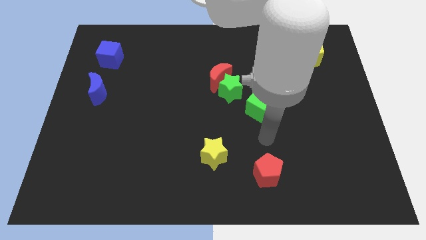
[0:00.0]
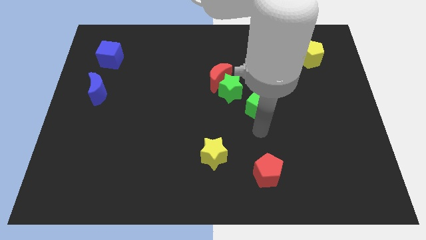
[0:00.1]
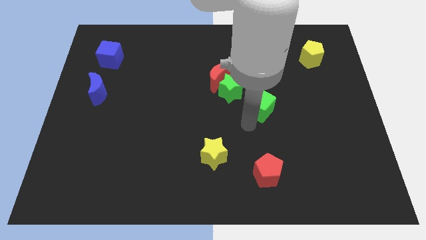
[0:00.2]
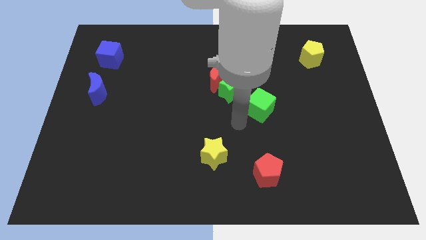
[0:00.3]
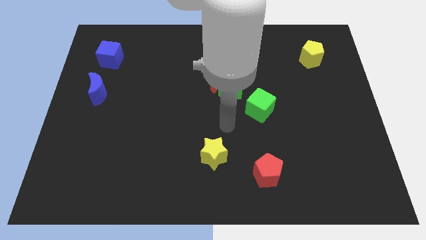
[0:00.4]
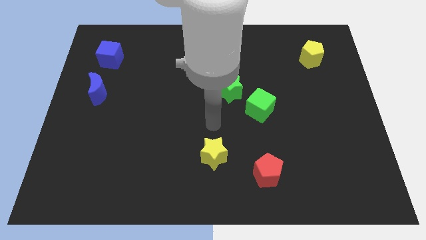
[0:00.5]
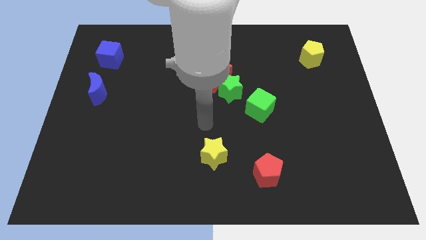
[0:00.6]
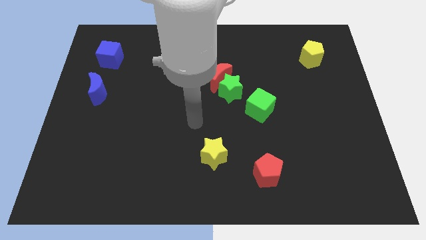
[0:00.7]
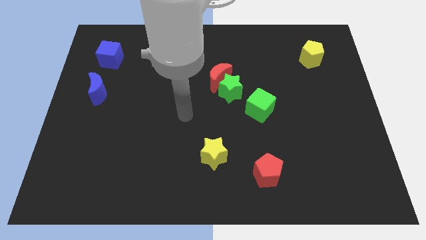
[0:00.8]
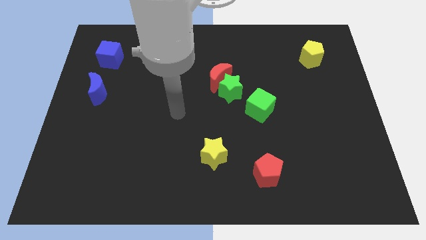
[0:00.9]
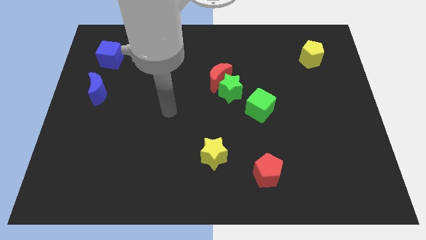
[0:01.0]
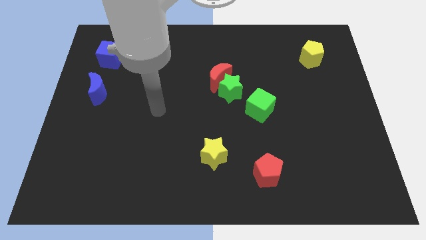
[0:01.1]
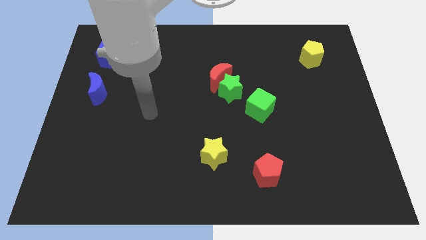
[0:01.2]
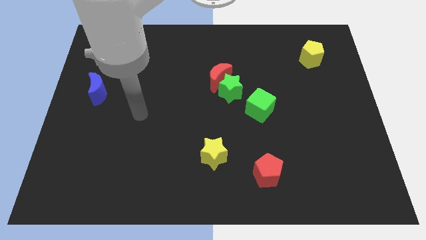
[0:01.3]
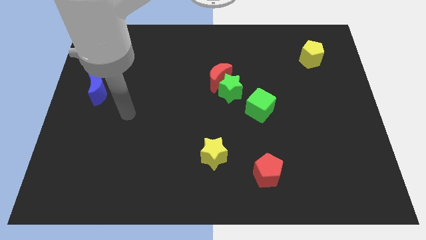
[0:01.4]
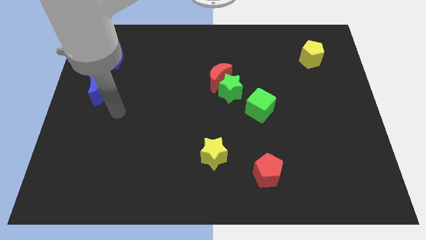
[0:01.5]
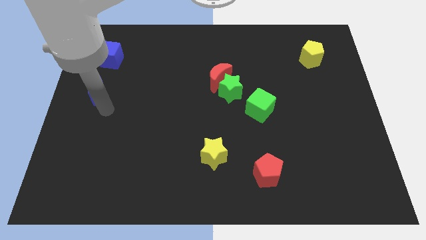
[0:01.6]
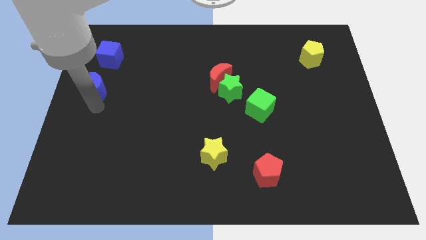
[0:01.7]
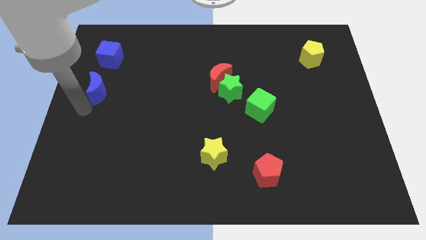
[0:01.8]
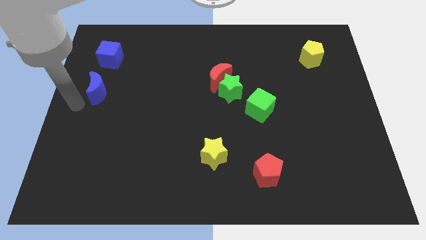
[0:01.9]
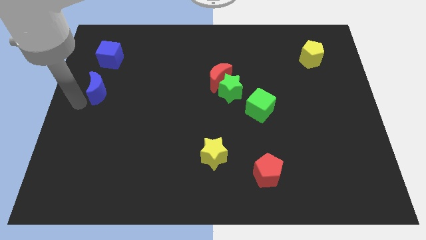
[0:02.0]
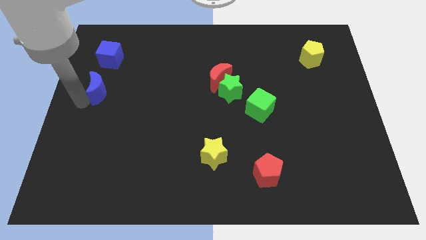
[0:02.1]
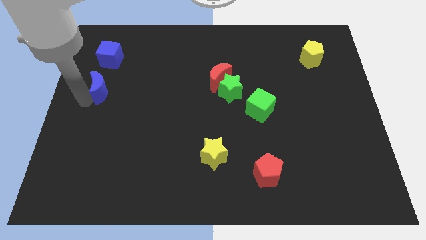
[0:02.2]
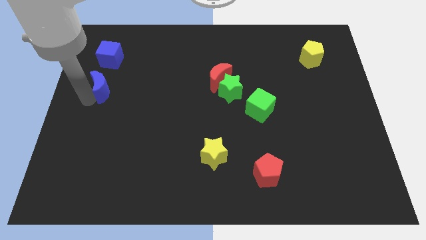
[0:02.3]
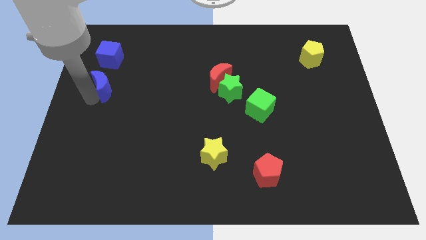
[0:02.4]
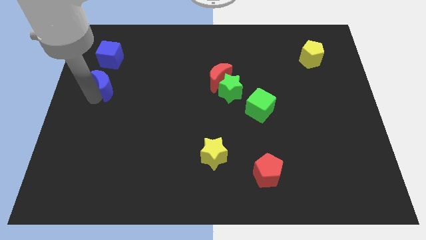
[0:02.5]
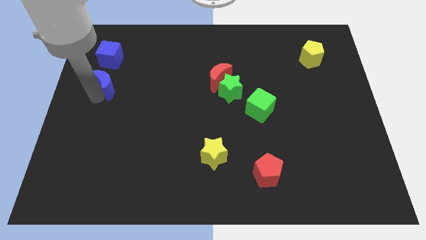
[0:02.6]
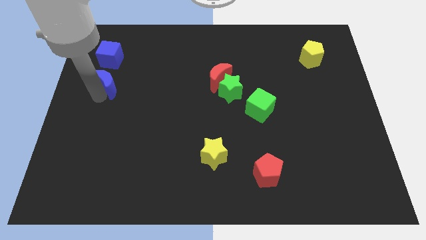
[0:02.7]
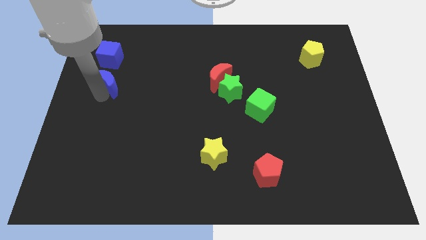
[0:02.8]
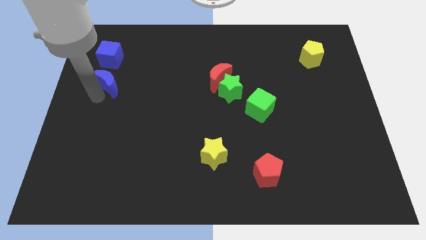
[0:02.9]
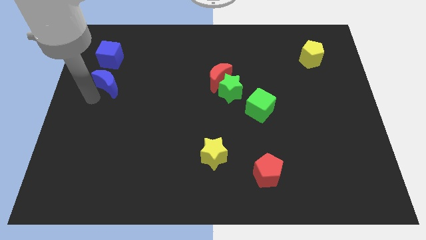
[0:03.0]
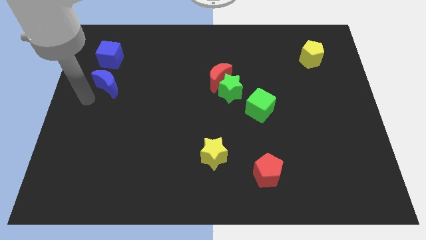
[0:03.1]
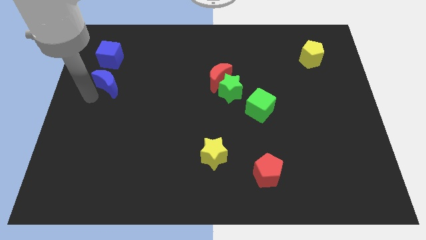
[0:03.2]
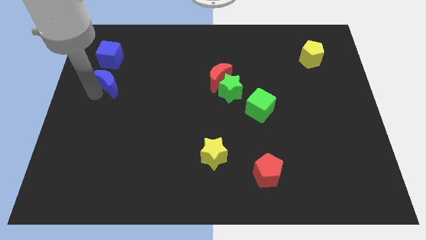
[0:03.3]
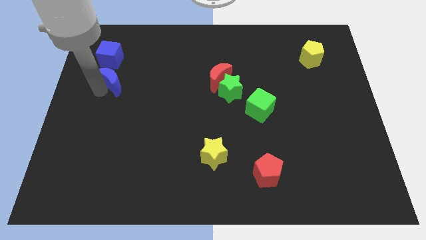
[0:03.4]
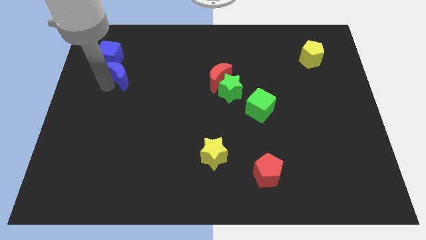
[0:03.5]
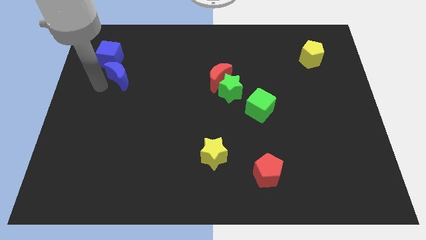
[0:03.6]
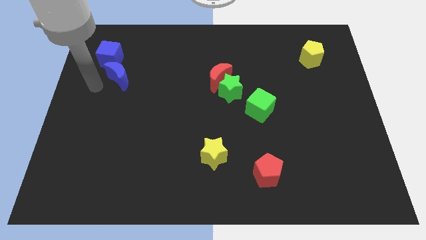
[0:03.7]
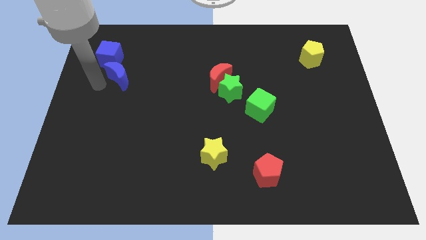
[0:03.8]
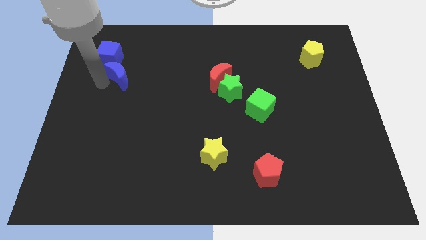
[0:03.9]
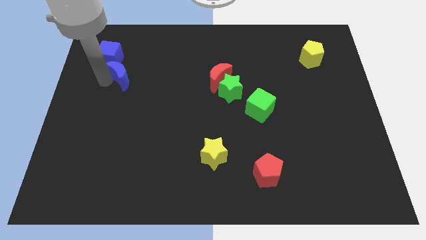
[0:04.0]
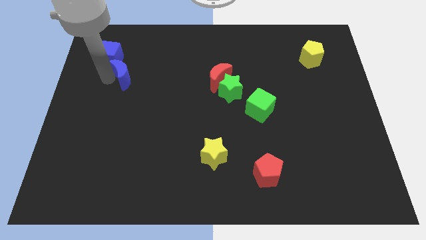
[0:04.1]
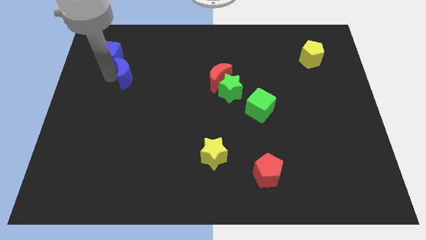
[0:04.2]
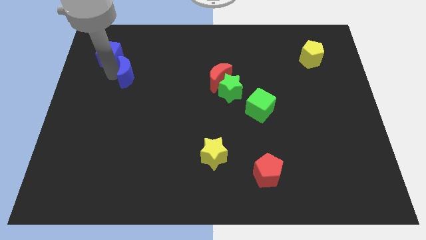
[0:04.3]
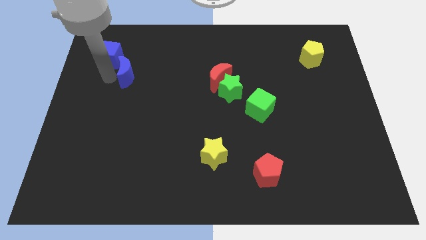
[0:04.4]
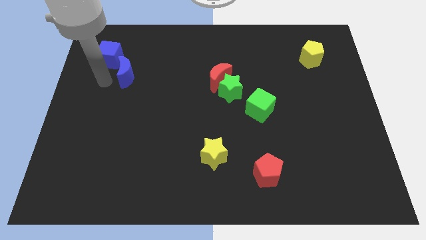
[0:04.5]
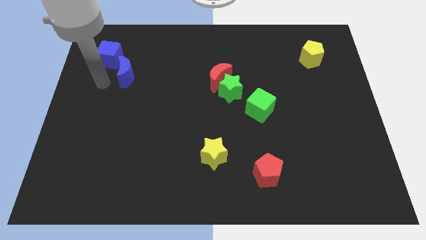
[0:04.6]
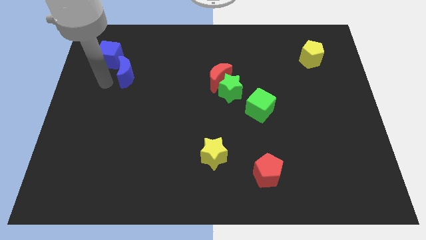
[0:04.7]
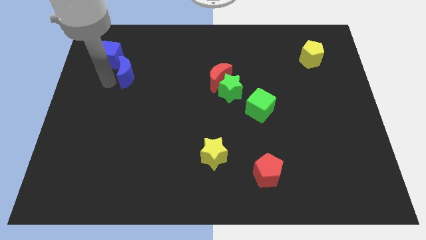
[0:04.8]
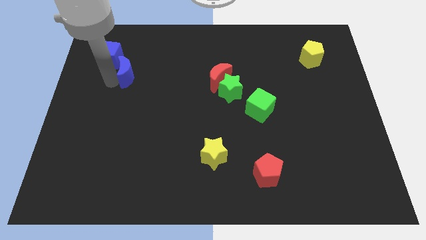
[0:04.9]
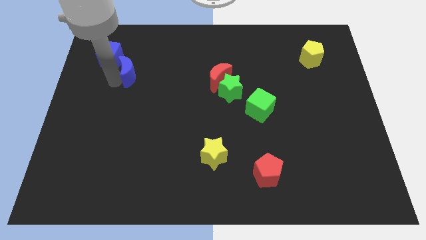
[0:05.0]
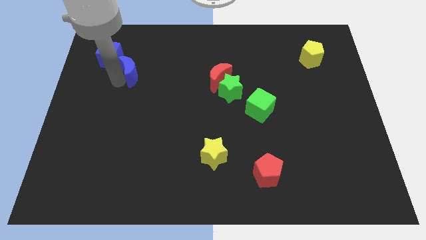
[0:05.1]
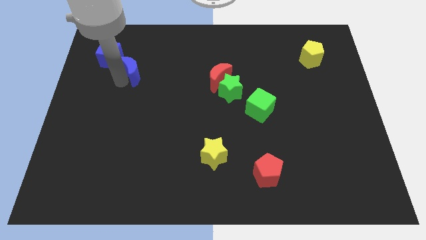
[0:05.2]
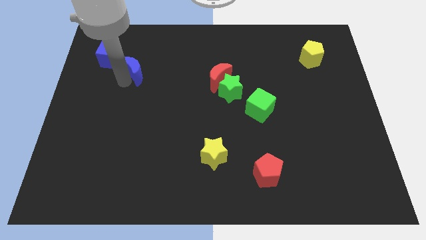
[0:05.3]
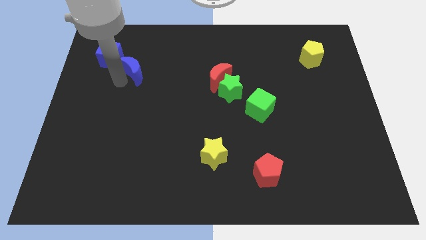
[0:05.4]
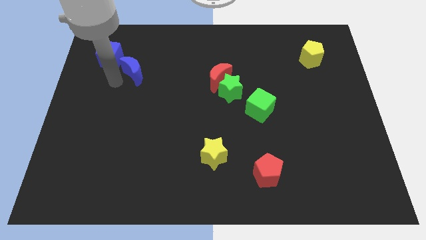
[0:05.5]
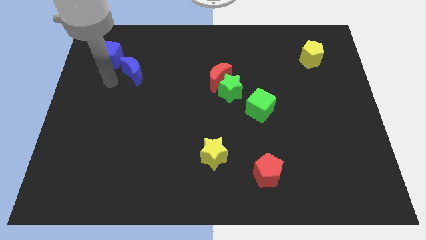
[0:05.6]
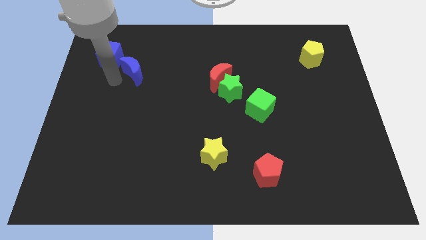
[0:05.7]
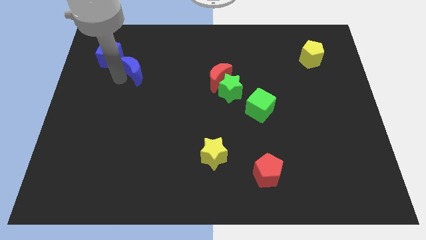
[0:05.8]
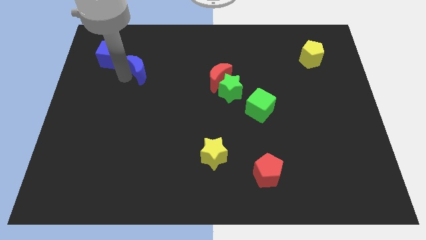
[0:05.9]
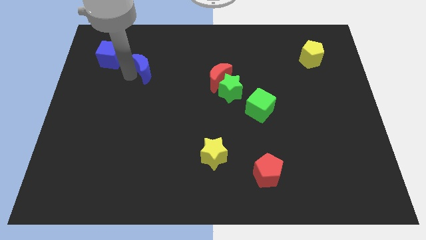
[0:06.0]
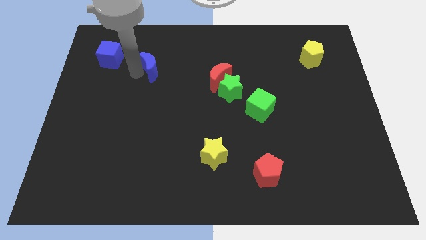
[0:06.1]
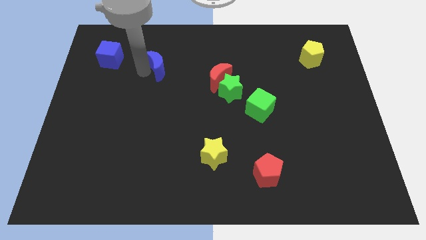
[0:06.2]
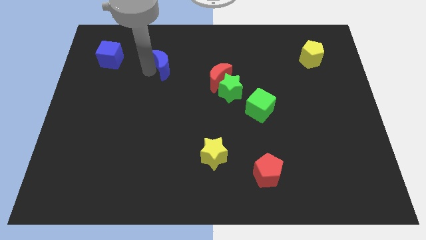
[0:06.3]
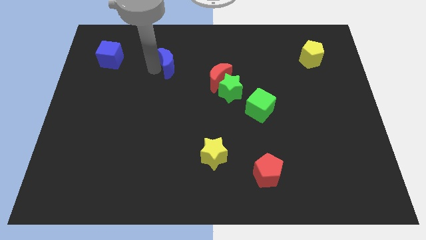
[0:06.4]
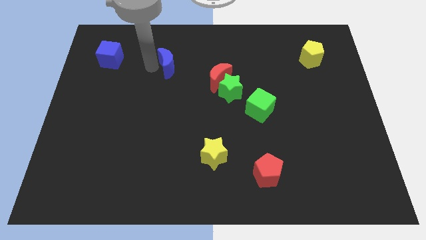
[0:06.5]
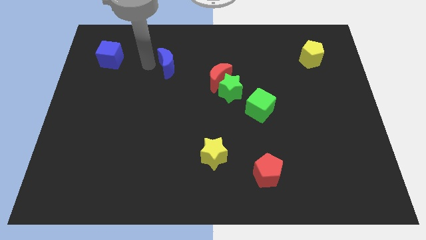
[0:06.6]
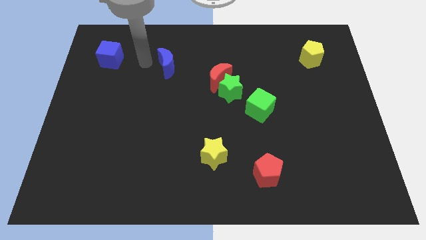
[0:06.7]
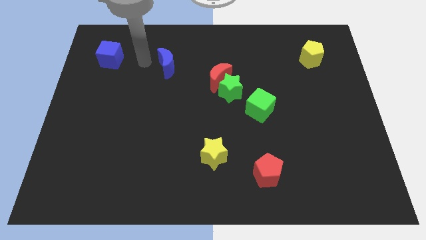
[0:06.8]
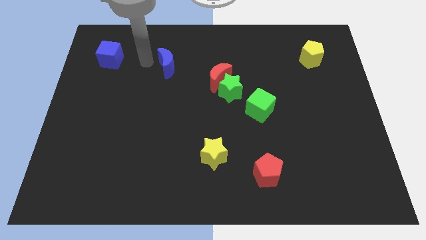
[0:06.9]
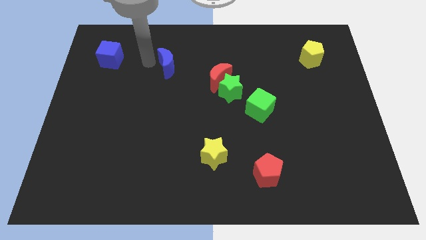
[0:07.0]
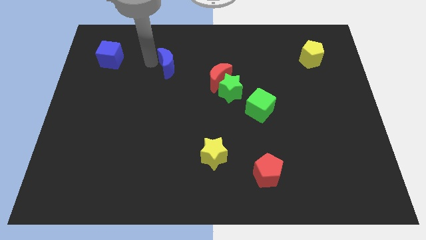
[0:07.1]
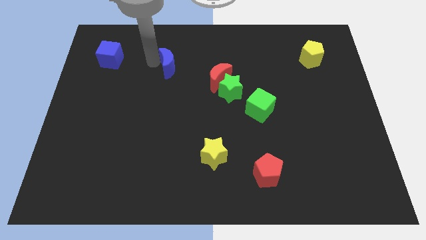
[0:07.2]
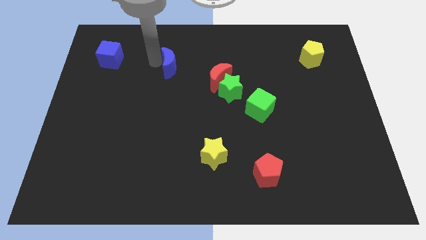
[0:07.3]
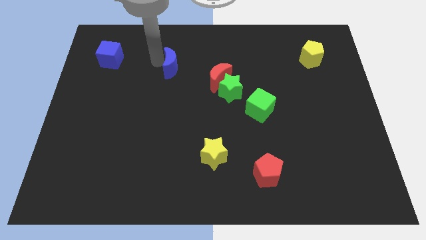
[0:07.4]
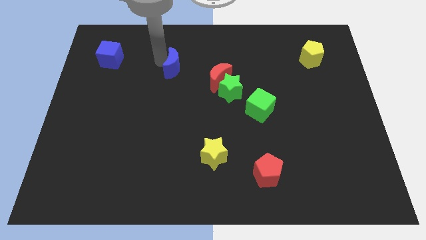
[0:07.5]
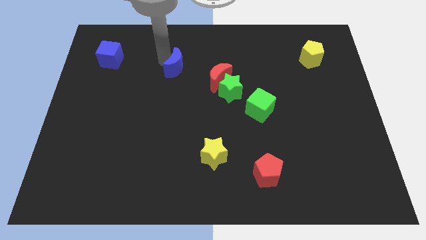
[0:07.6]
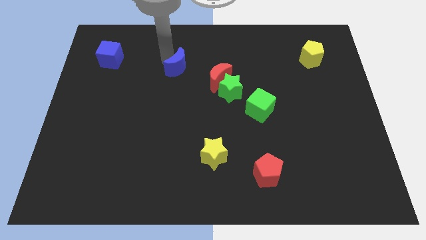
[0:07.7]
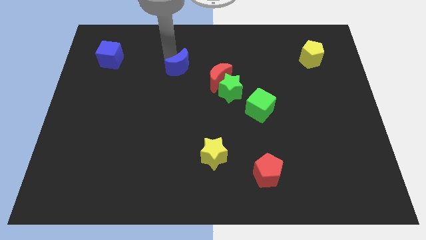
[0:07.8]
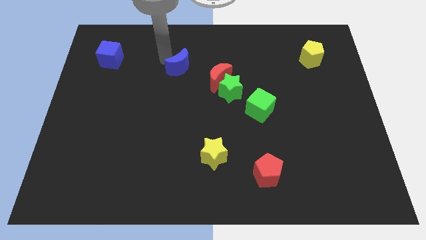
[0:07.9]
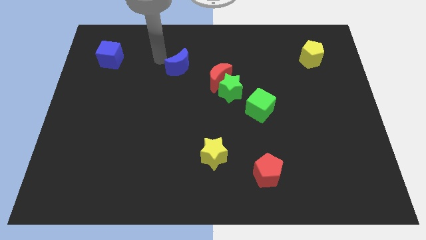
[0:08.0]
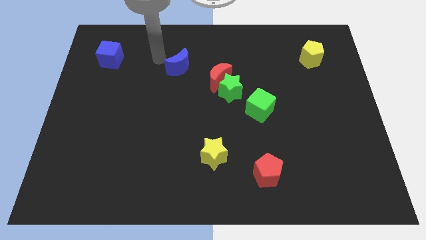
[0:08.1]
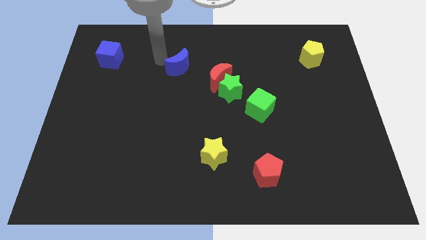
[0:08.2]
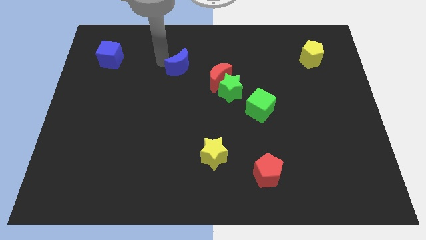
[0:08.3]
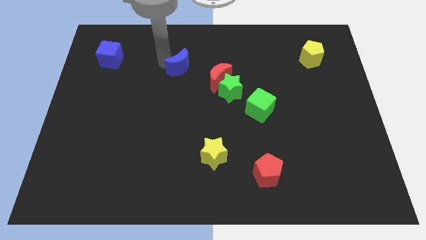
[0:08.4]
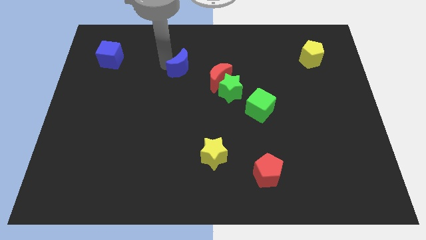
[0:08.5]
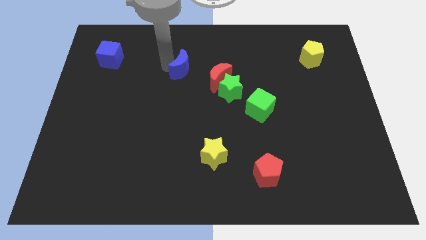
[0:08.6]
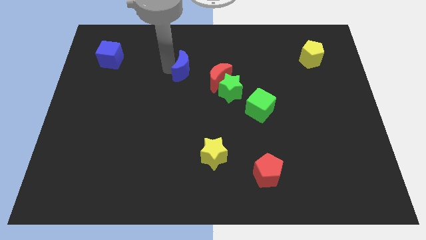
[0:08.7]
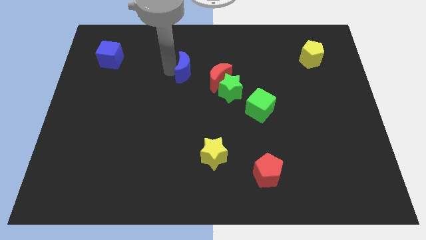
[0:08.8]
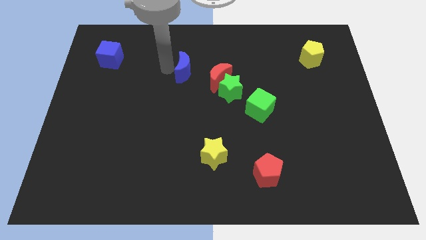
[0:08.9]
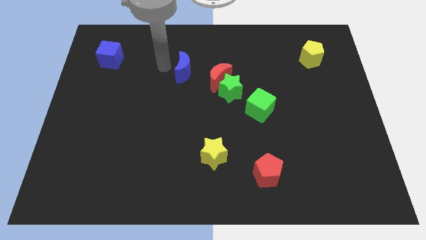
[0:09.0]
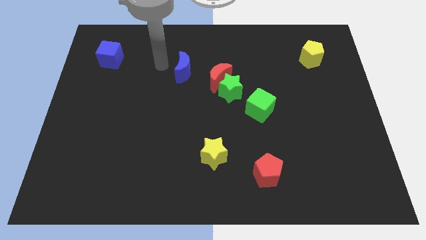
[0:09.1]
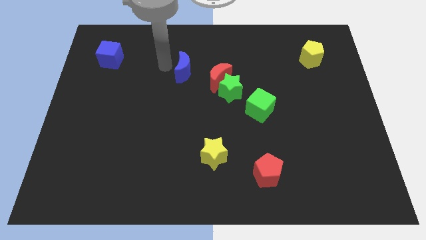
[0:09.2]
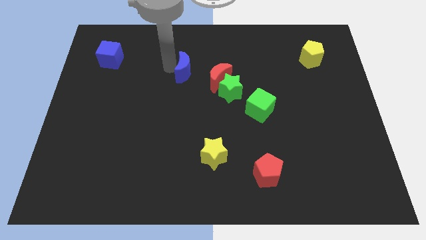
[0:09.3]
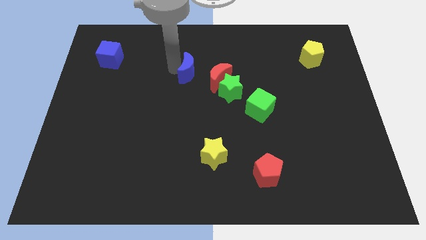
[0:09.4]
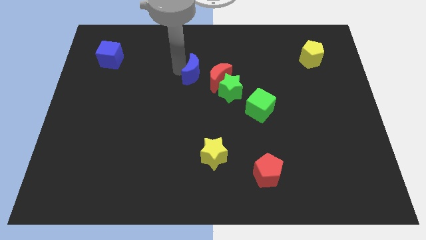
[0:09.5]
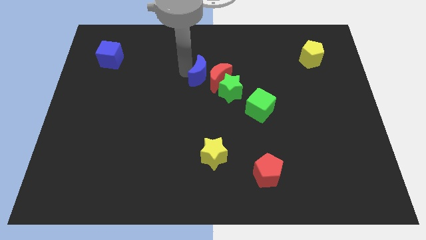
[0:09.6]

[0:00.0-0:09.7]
push the blue moon next to the red moon
